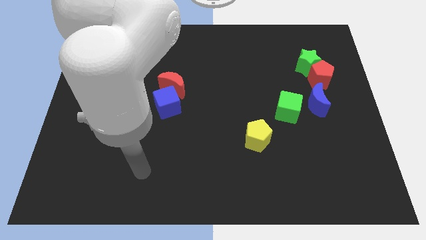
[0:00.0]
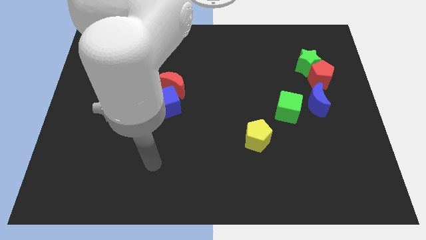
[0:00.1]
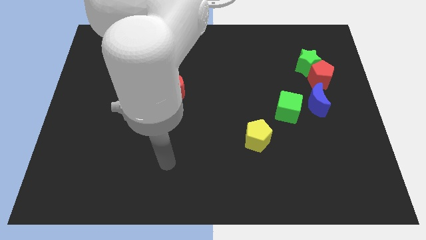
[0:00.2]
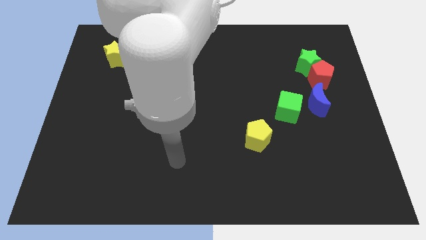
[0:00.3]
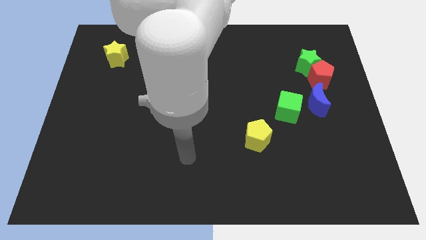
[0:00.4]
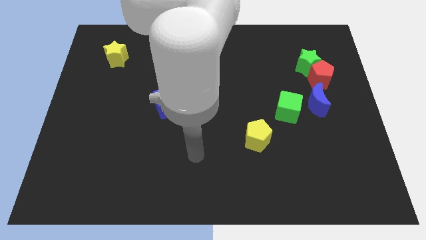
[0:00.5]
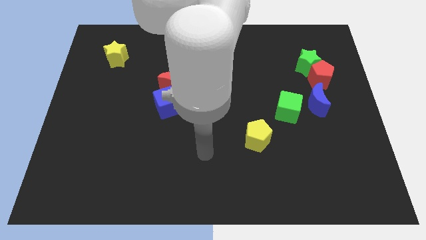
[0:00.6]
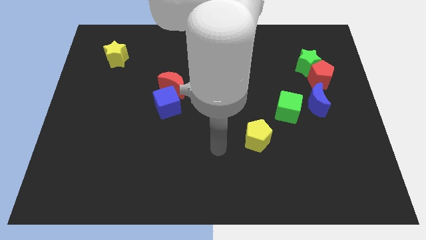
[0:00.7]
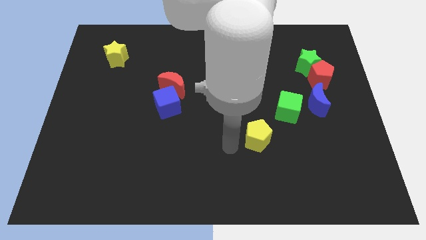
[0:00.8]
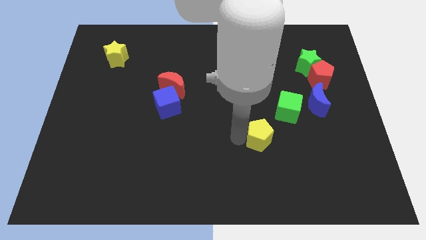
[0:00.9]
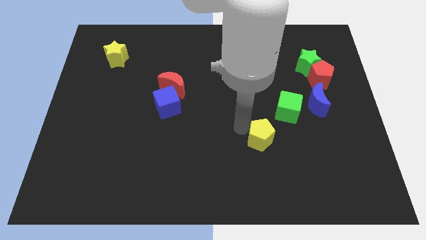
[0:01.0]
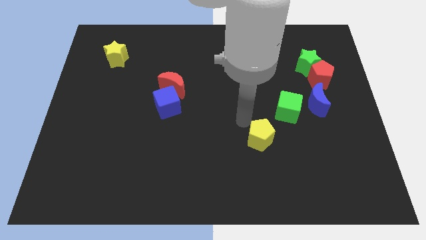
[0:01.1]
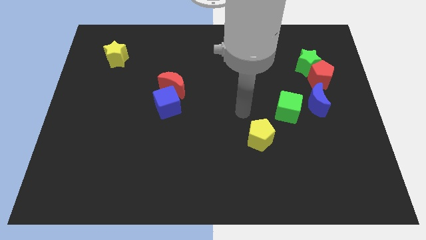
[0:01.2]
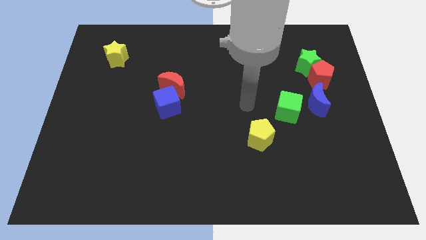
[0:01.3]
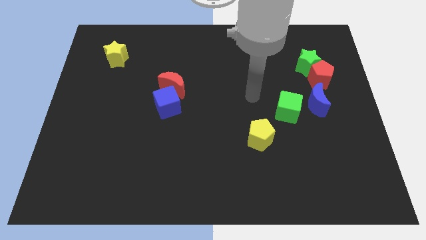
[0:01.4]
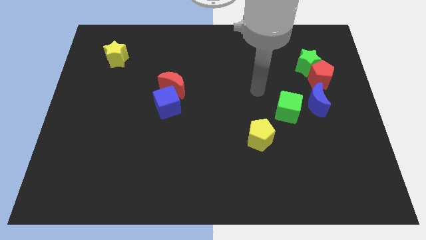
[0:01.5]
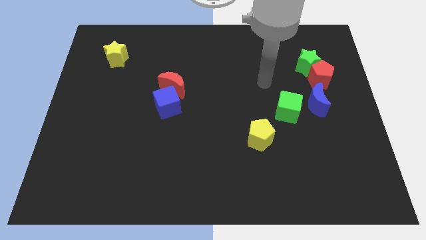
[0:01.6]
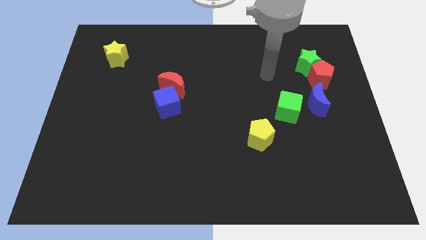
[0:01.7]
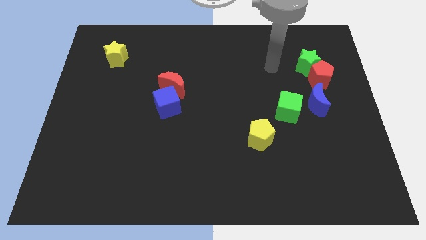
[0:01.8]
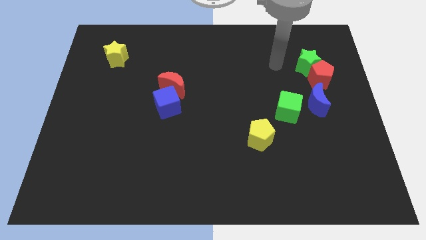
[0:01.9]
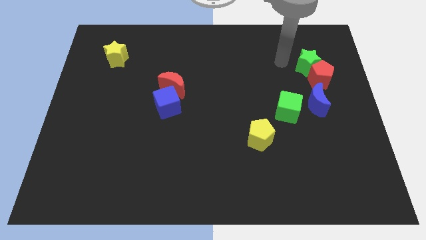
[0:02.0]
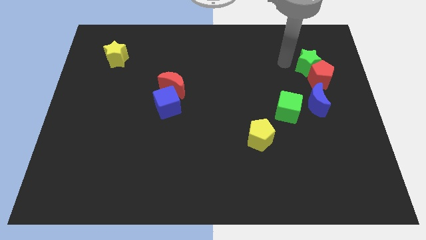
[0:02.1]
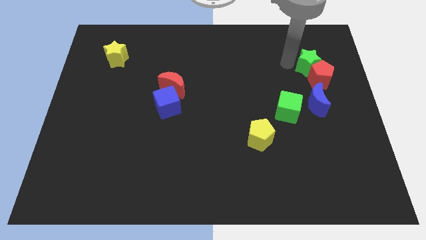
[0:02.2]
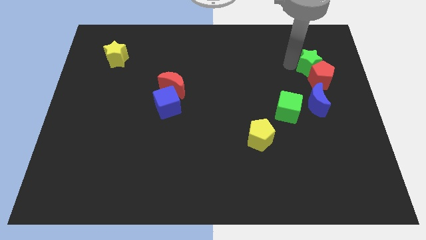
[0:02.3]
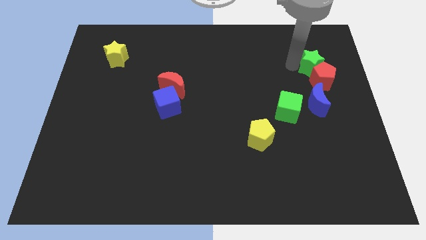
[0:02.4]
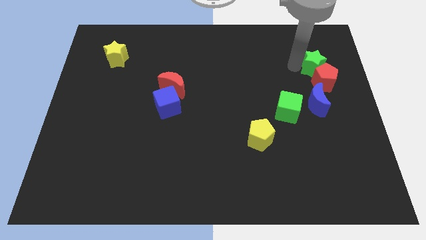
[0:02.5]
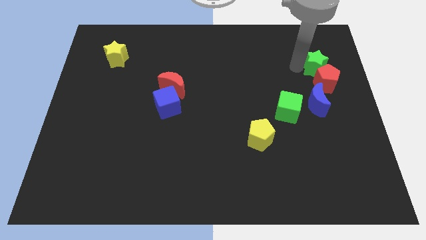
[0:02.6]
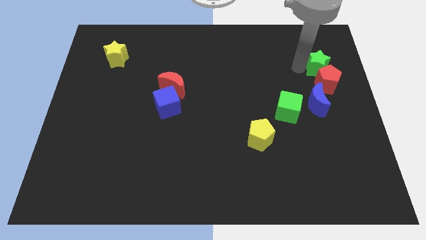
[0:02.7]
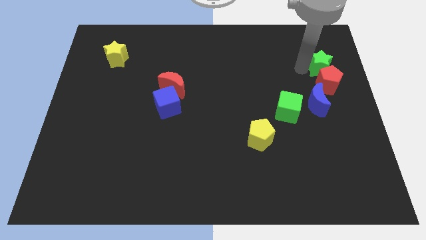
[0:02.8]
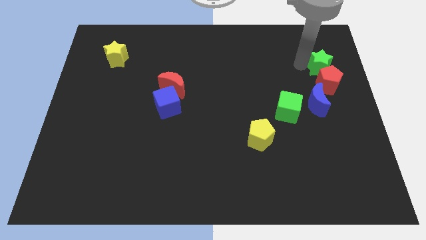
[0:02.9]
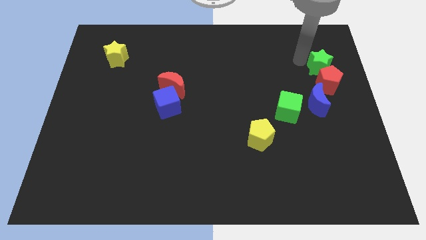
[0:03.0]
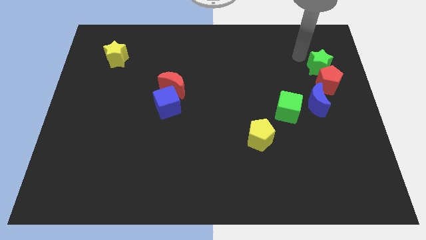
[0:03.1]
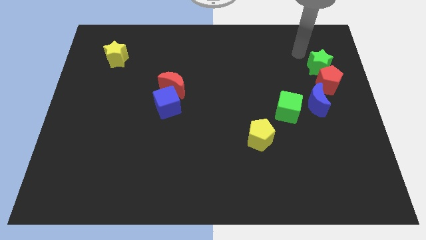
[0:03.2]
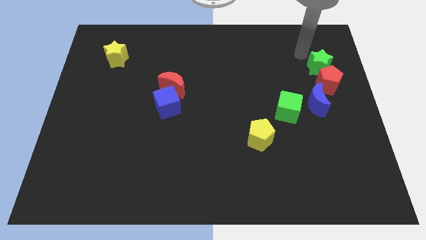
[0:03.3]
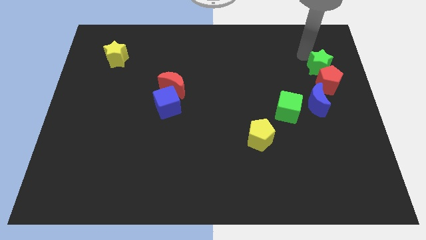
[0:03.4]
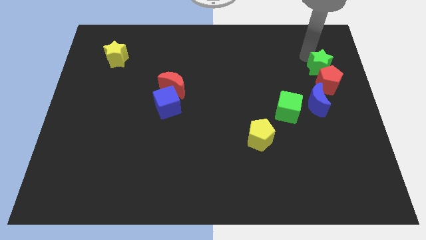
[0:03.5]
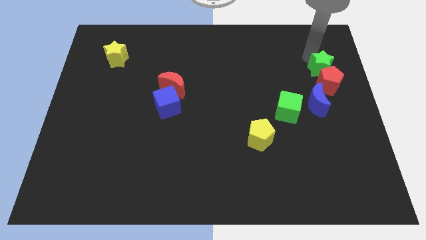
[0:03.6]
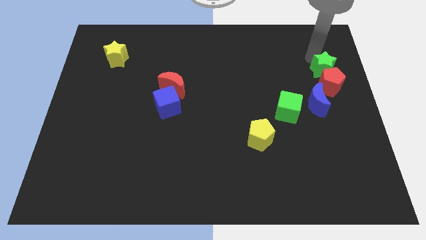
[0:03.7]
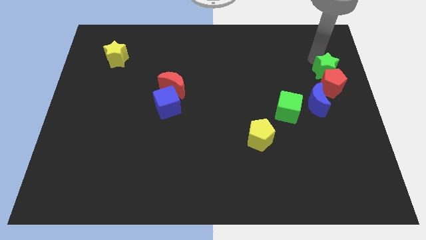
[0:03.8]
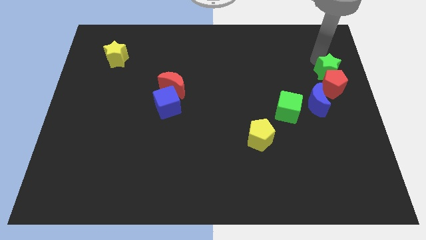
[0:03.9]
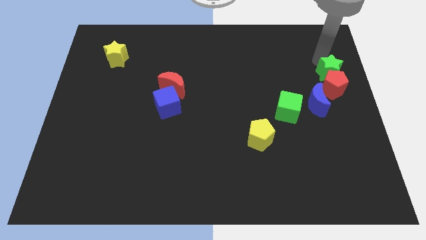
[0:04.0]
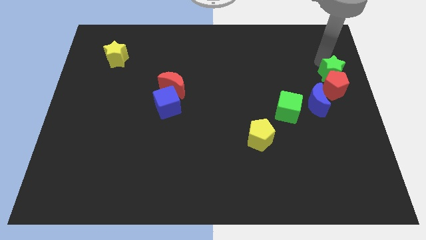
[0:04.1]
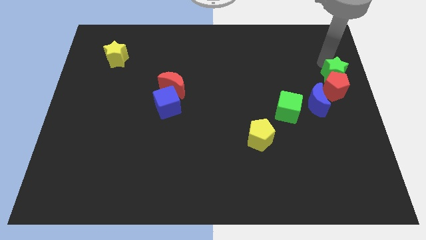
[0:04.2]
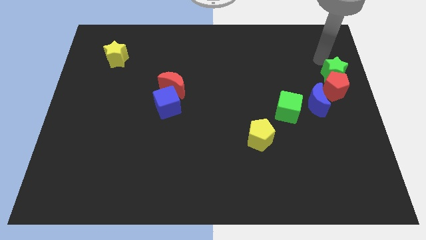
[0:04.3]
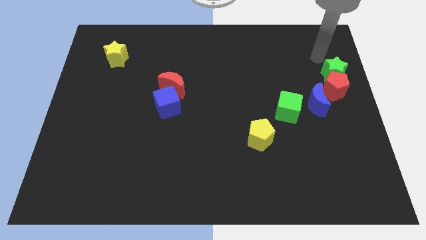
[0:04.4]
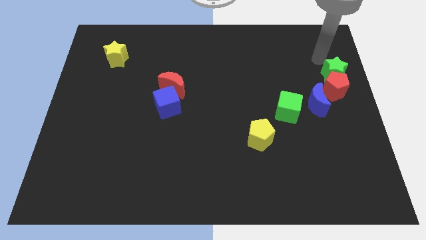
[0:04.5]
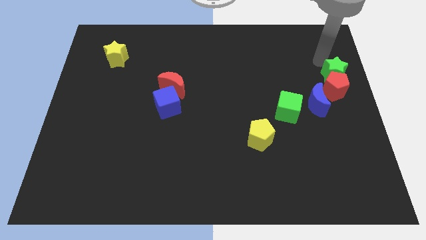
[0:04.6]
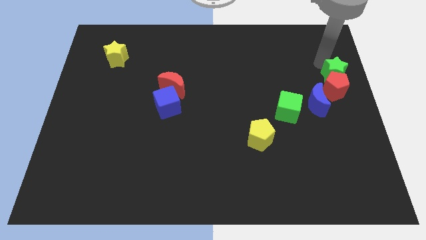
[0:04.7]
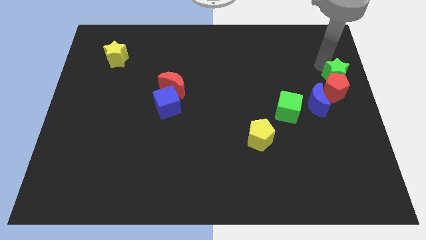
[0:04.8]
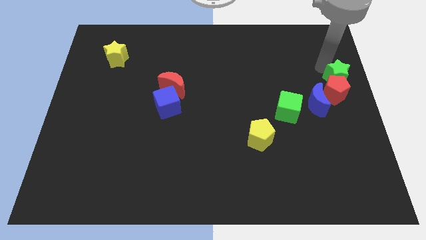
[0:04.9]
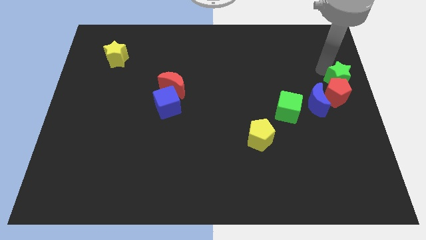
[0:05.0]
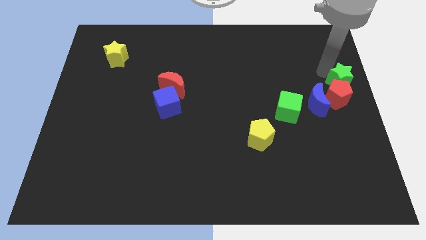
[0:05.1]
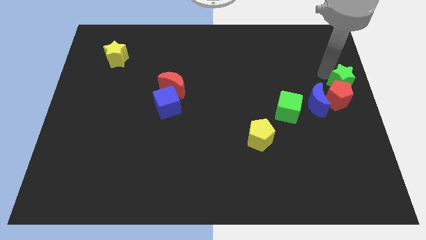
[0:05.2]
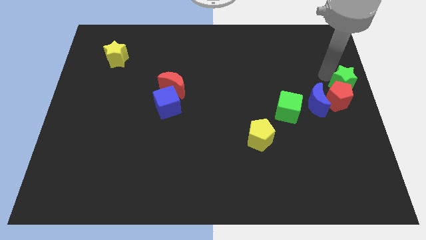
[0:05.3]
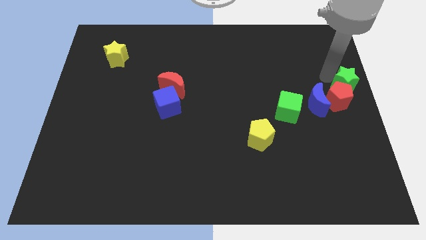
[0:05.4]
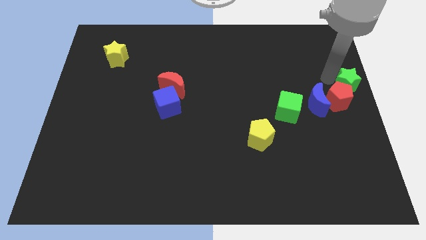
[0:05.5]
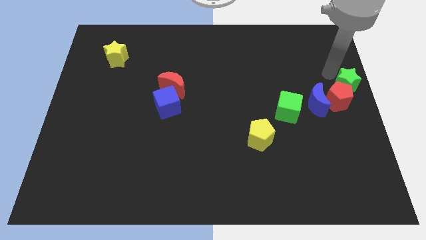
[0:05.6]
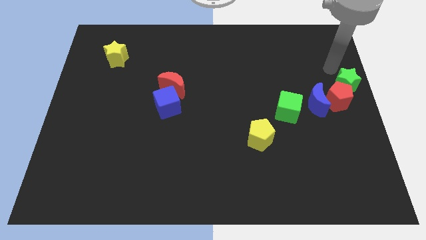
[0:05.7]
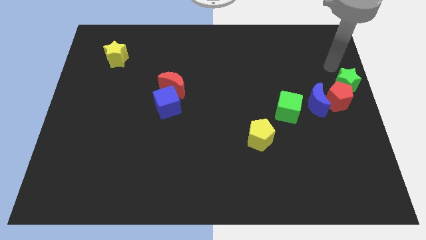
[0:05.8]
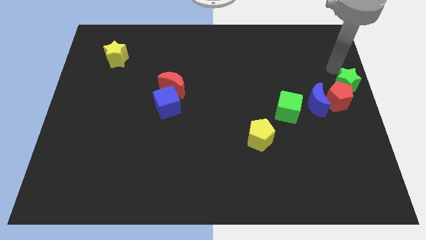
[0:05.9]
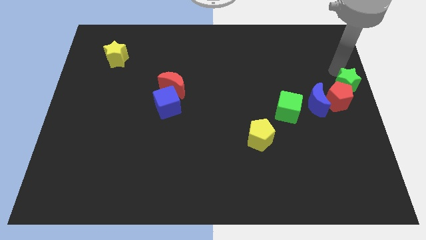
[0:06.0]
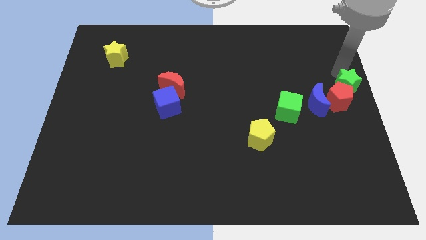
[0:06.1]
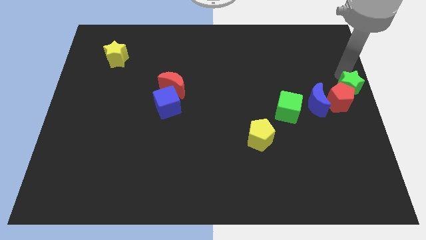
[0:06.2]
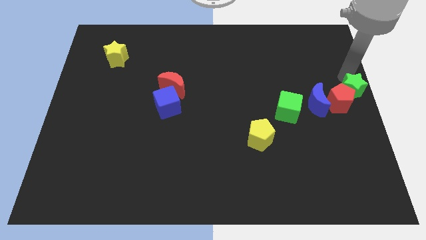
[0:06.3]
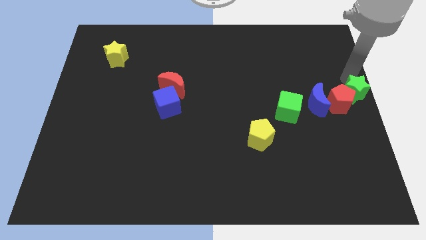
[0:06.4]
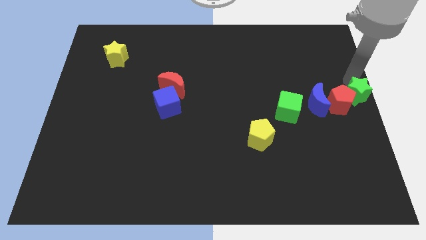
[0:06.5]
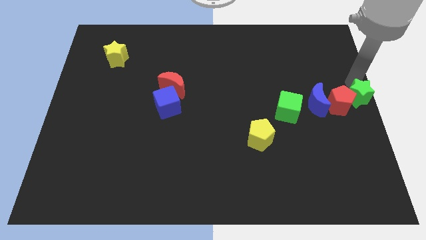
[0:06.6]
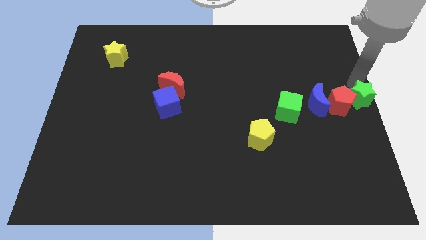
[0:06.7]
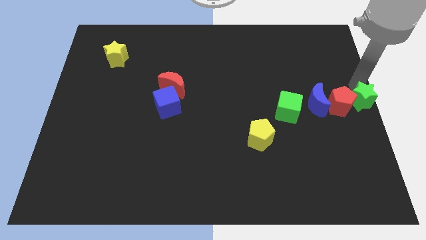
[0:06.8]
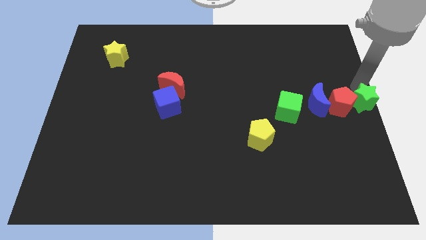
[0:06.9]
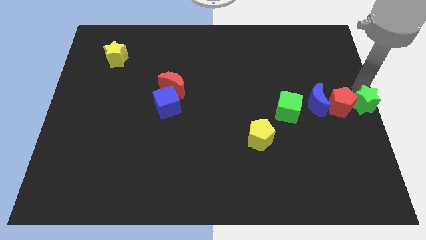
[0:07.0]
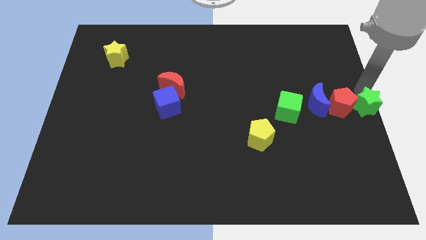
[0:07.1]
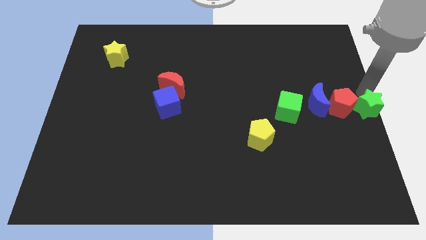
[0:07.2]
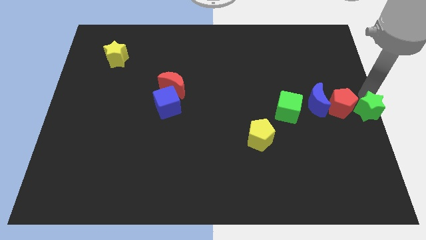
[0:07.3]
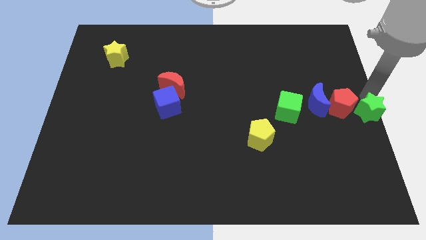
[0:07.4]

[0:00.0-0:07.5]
slightly move the green star downwards

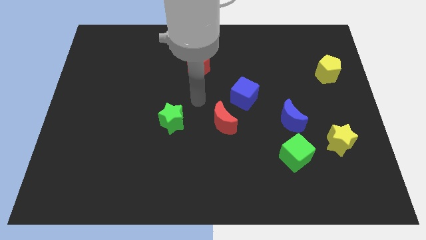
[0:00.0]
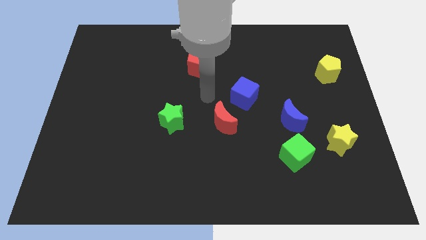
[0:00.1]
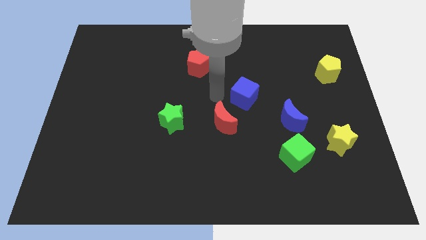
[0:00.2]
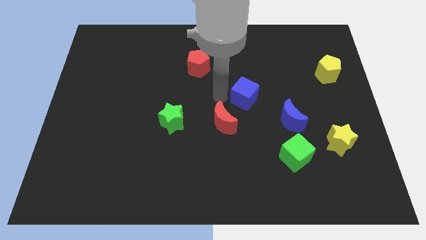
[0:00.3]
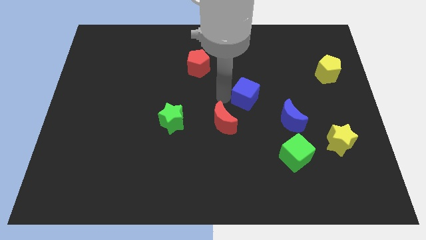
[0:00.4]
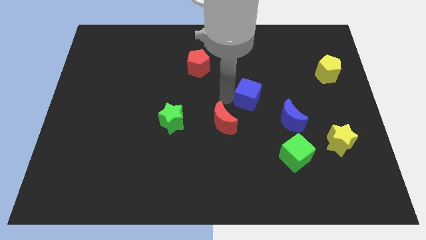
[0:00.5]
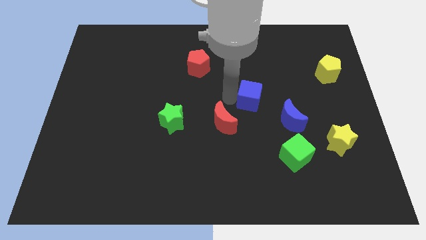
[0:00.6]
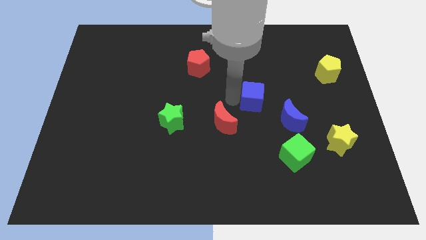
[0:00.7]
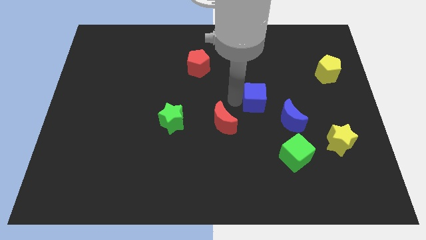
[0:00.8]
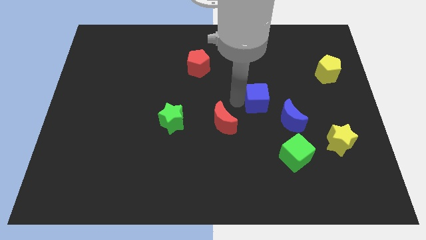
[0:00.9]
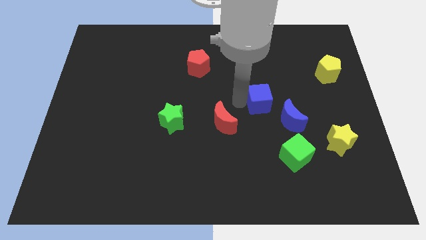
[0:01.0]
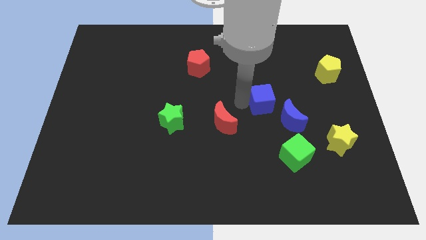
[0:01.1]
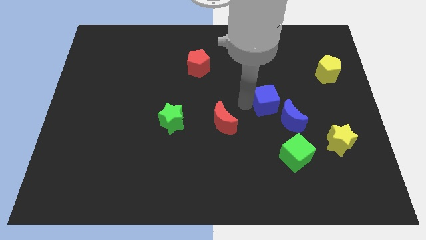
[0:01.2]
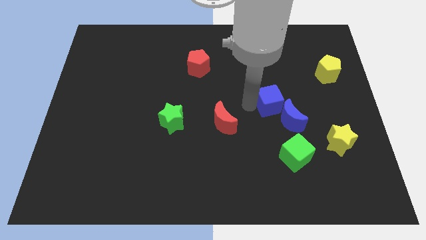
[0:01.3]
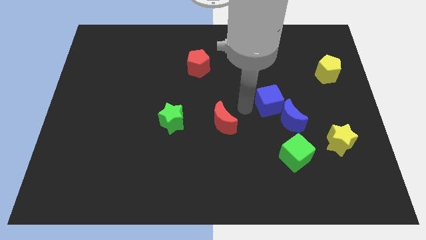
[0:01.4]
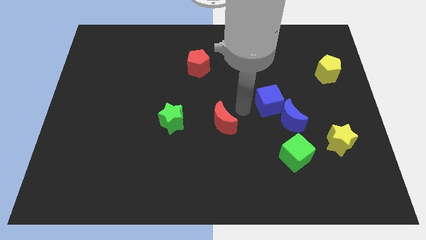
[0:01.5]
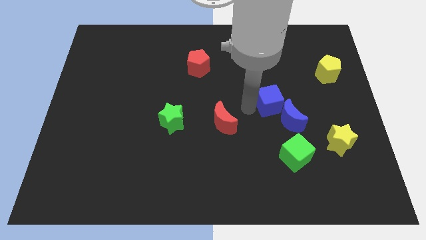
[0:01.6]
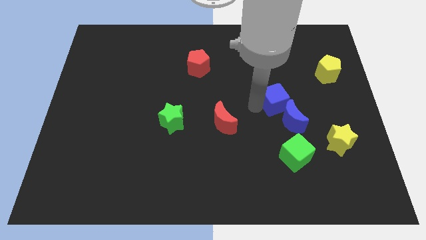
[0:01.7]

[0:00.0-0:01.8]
push the blue cube somewhat right
